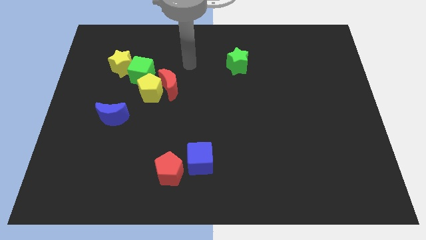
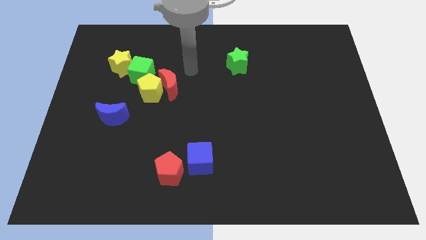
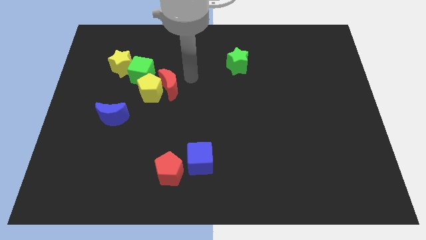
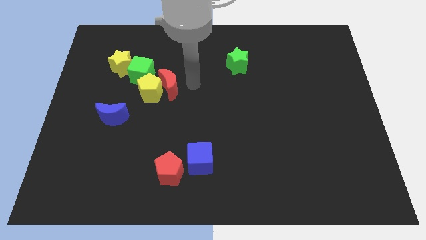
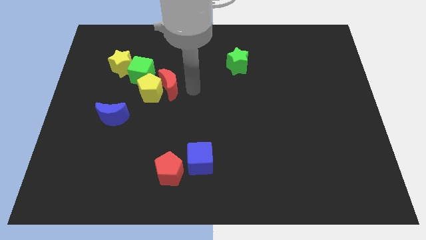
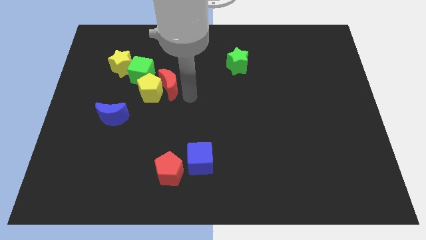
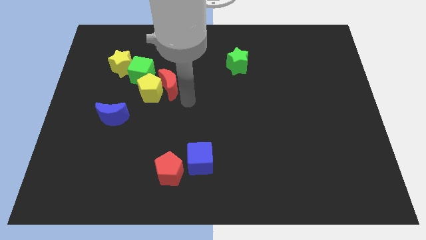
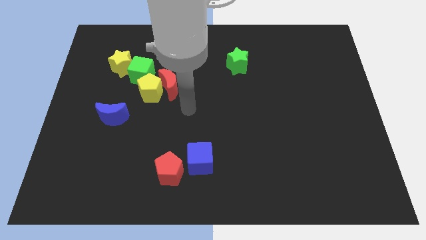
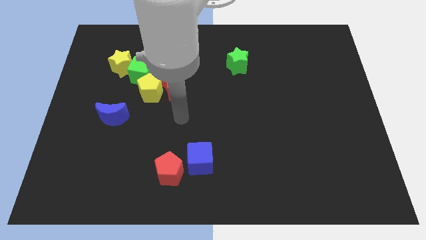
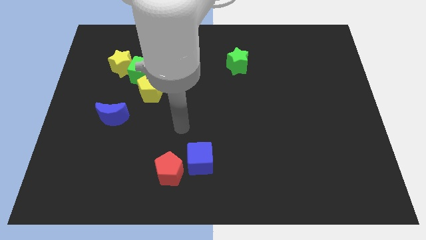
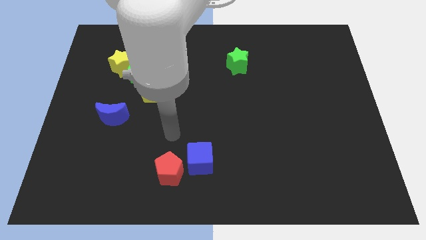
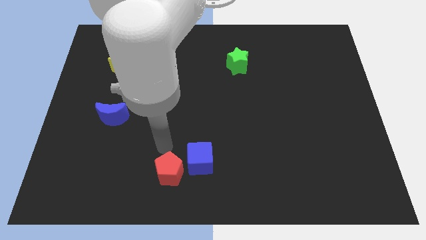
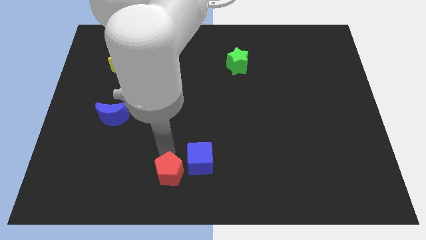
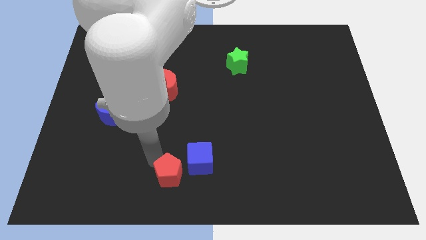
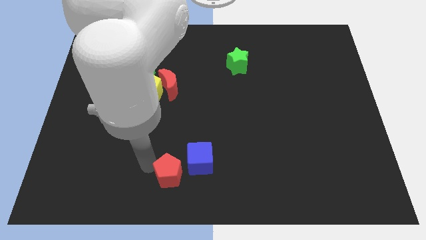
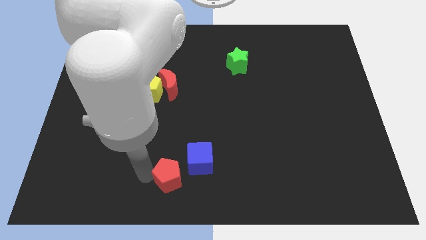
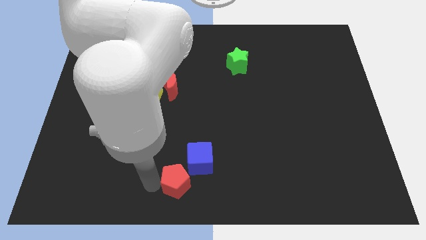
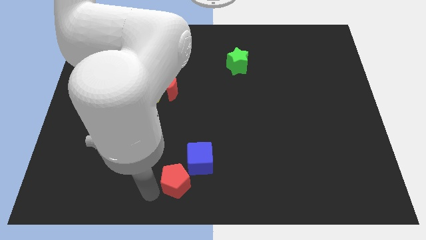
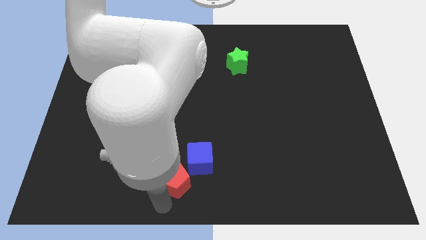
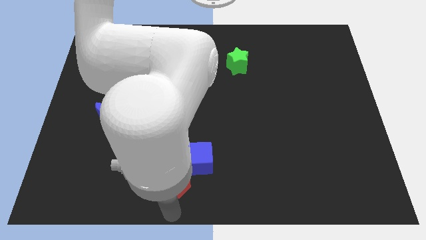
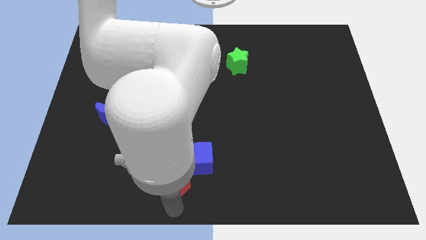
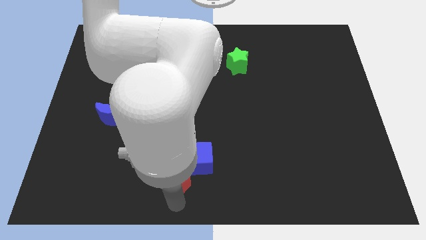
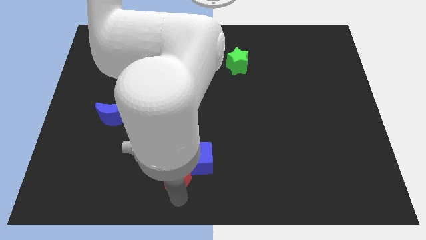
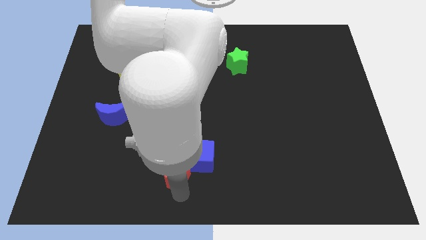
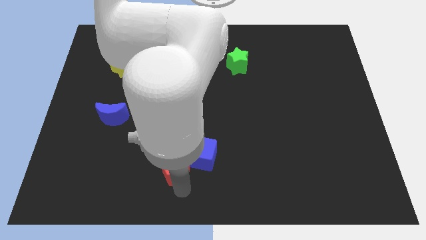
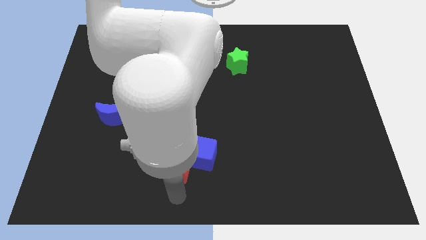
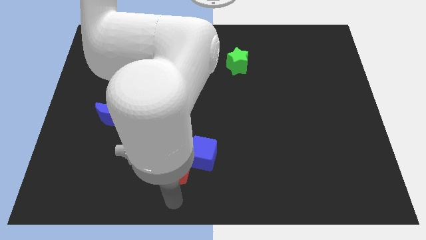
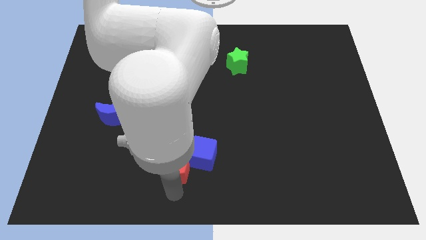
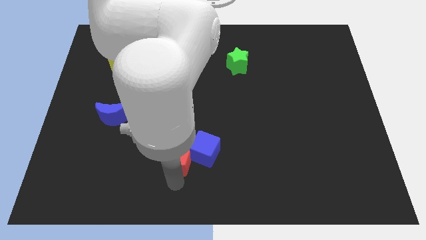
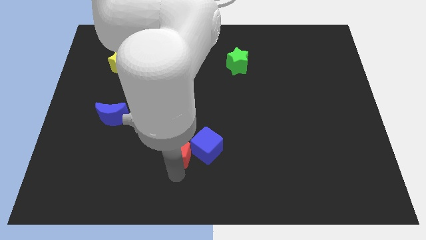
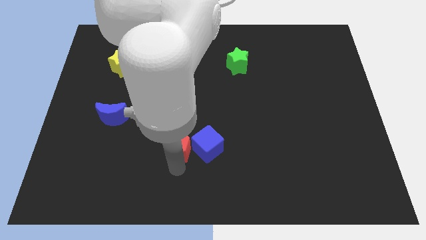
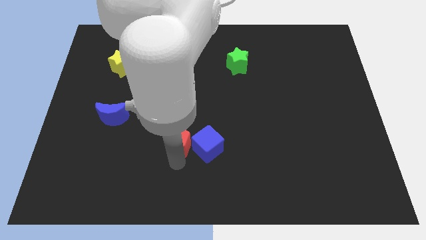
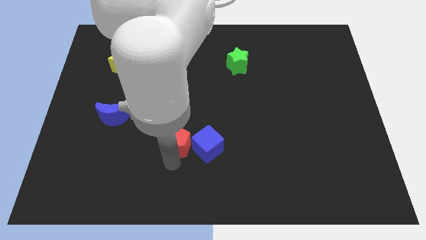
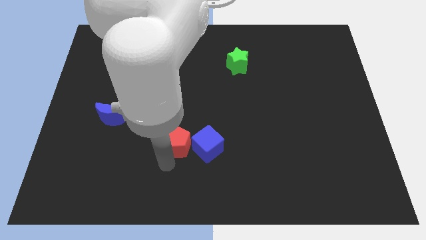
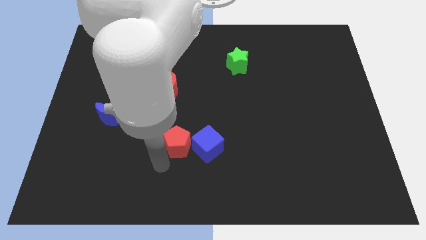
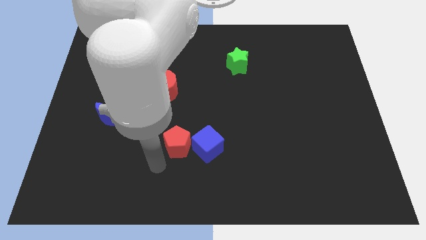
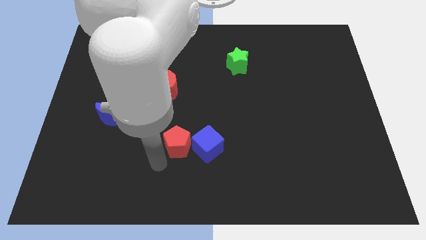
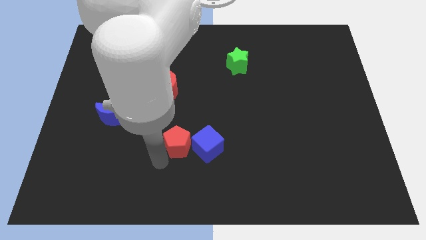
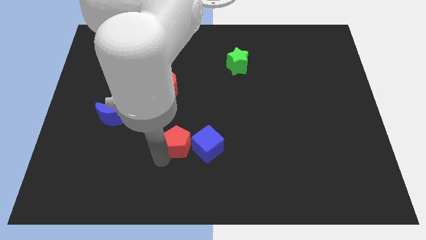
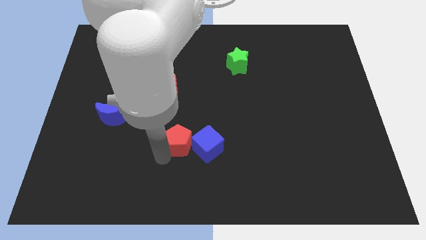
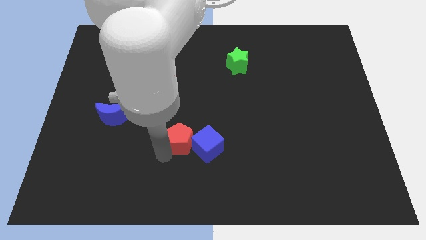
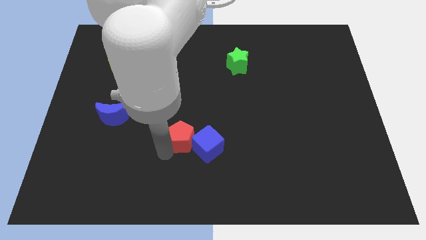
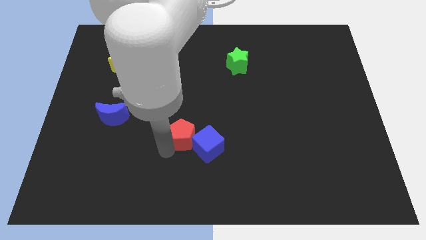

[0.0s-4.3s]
slide the red pentagon up and right diagonally a little bit

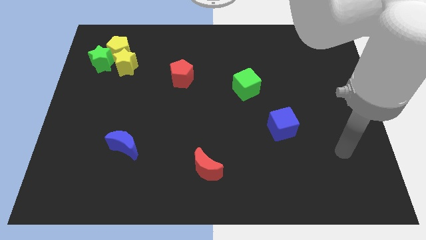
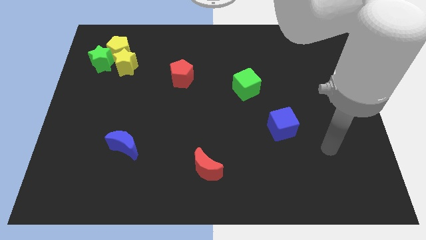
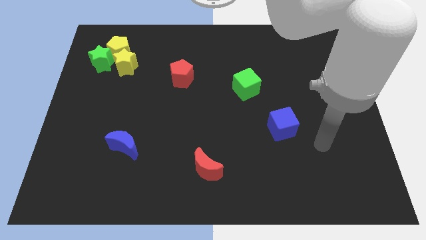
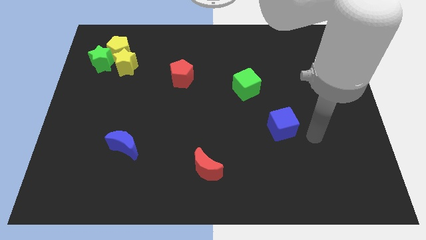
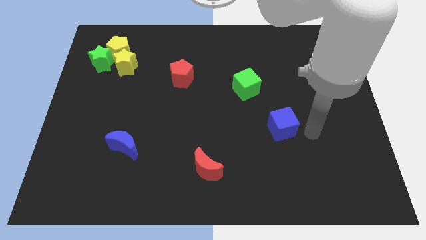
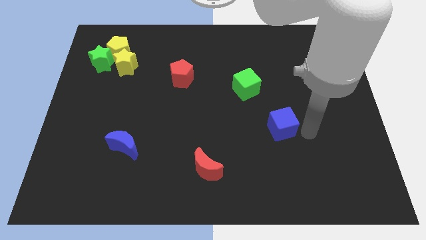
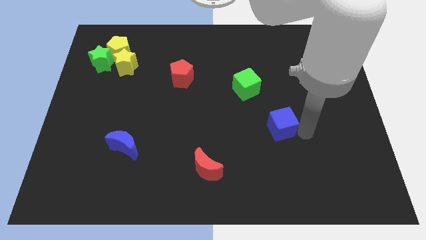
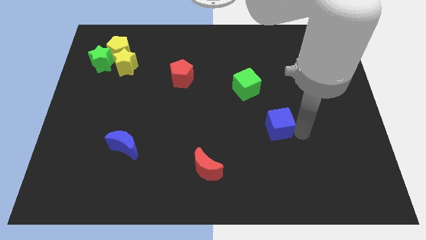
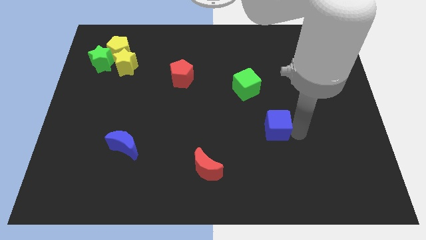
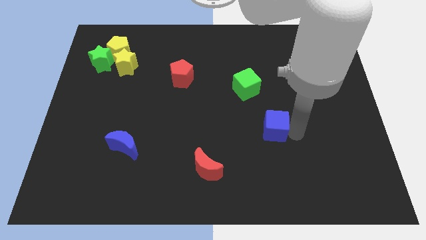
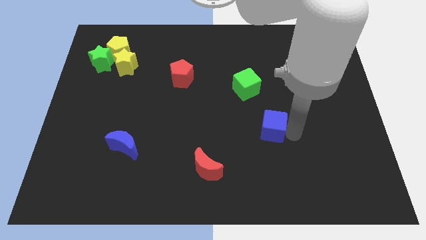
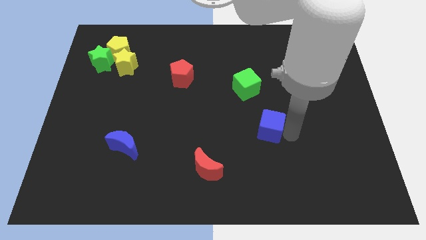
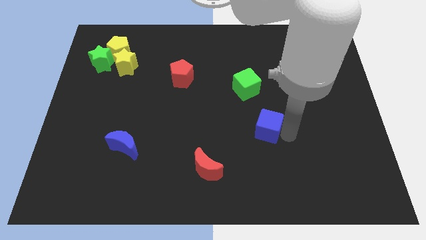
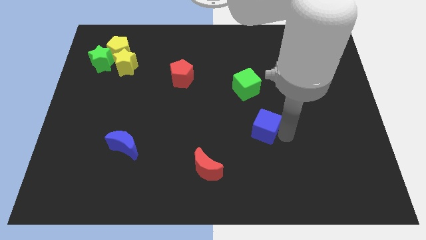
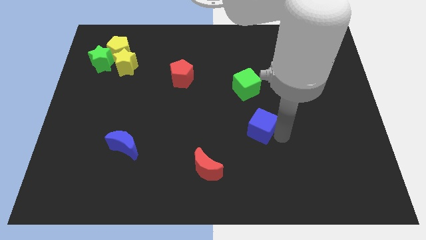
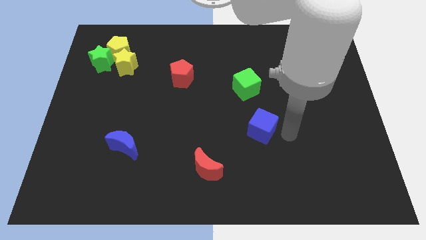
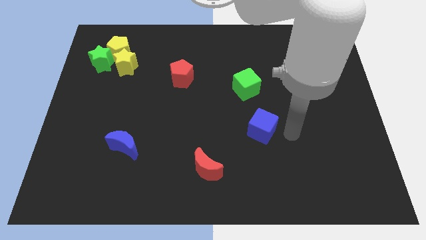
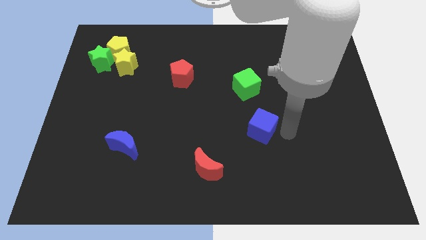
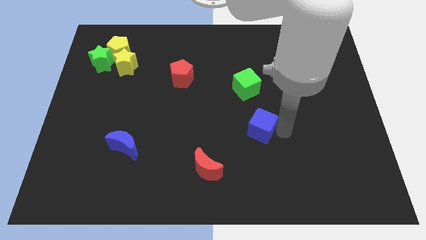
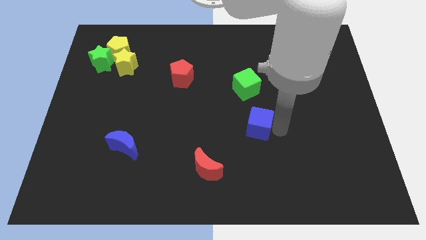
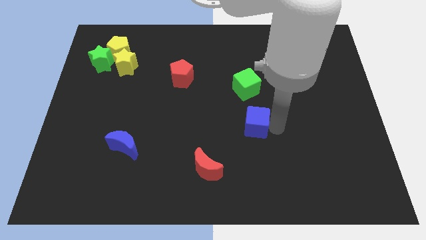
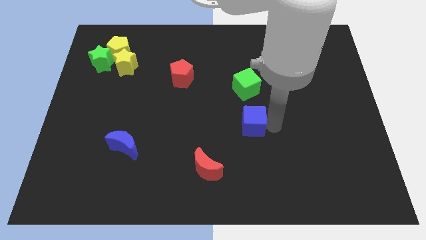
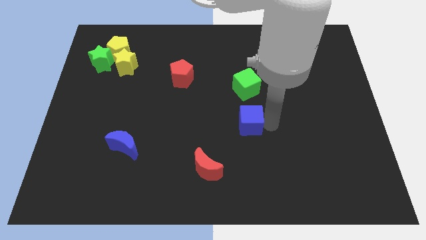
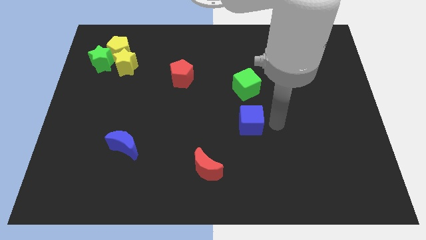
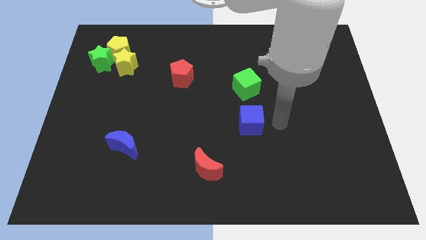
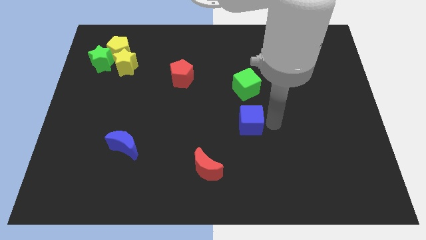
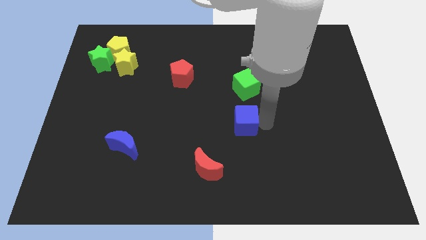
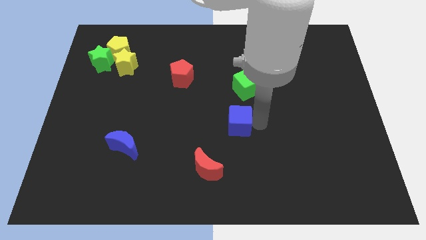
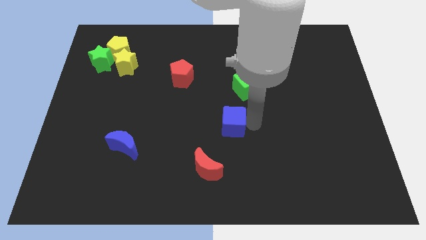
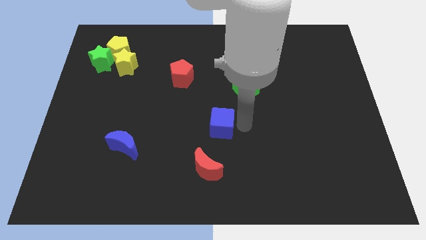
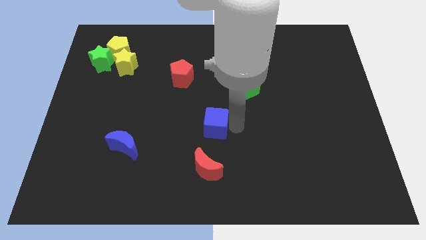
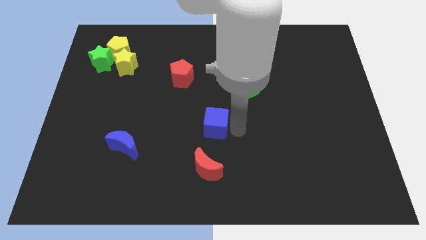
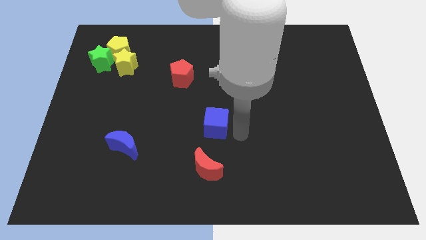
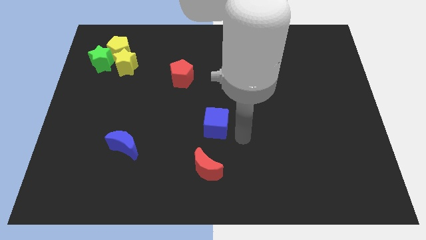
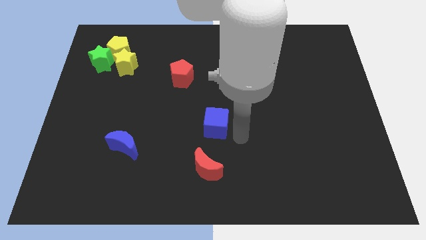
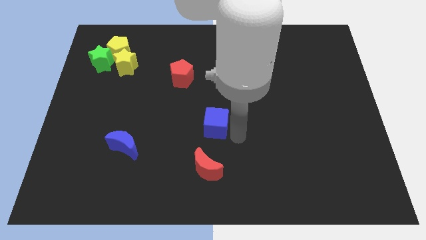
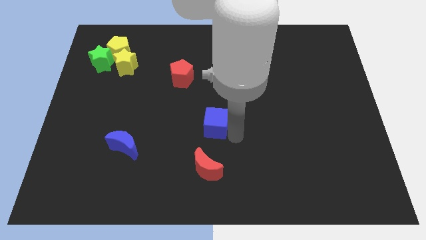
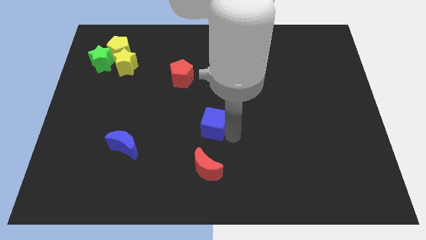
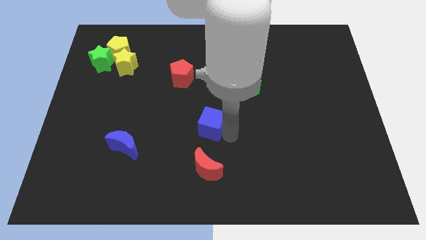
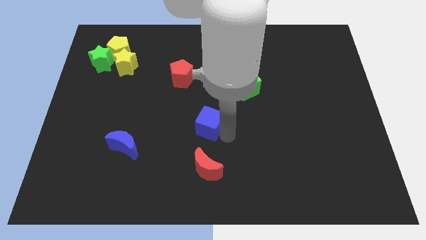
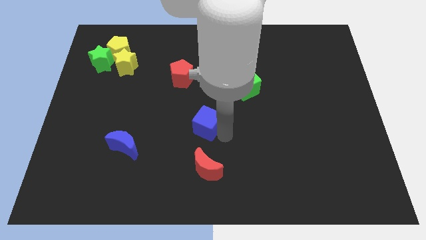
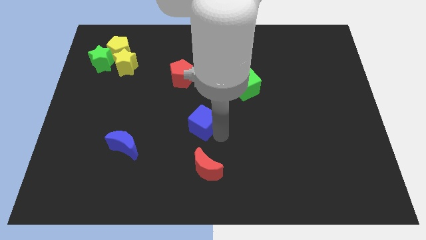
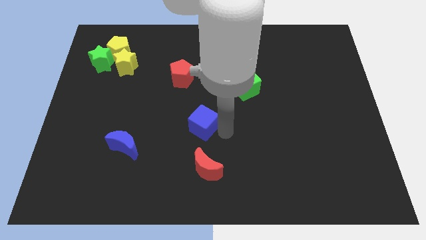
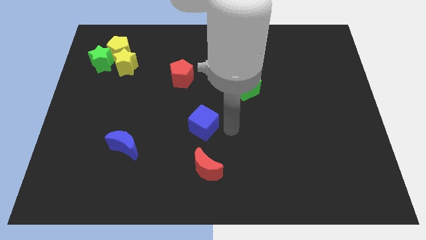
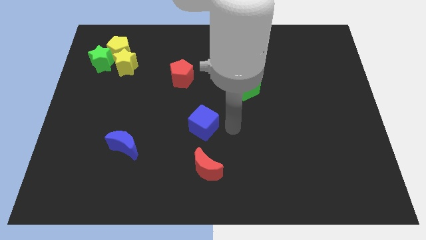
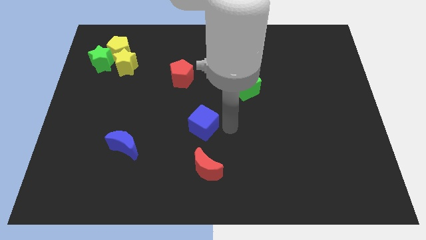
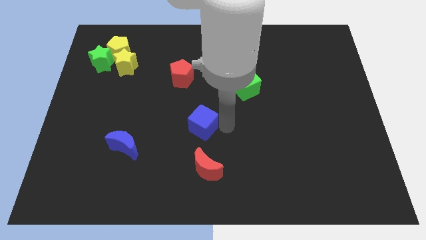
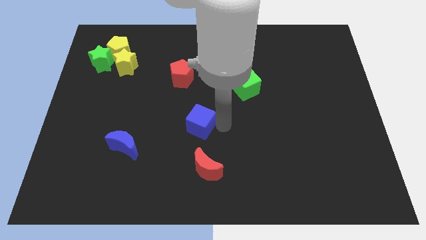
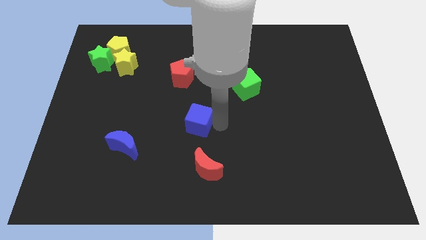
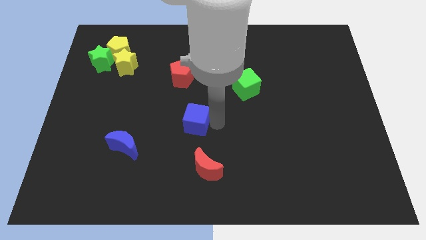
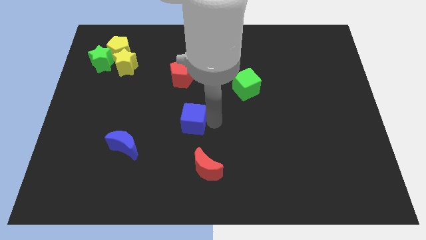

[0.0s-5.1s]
push the blue cube left
